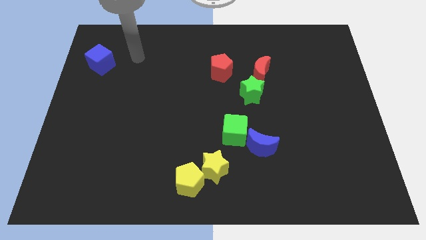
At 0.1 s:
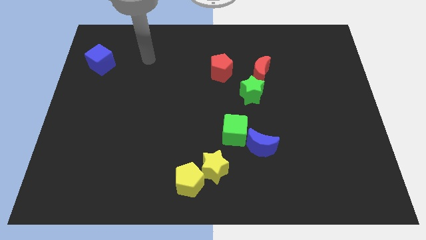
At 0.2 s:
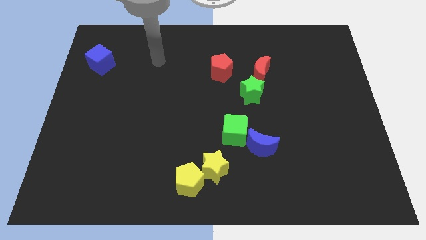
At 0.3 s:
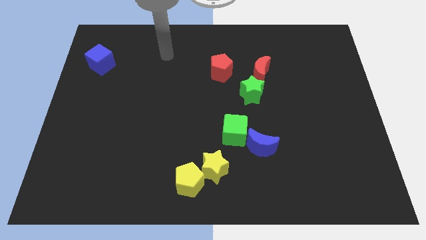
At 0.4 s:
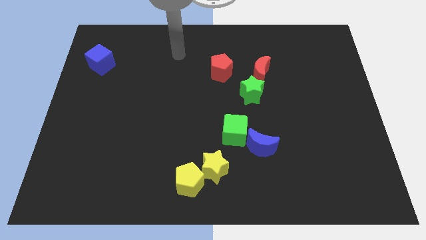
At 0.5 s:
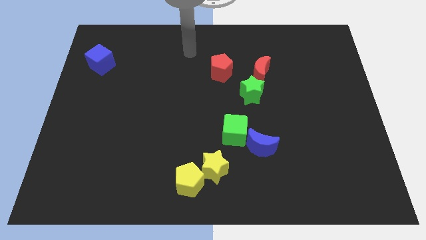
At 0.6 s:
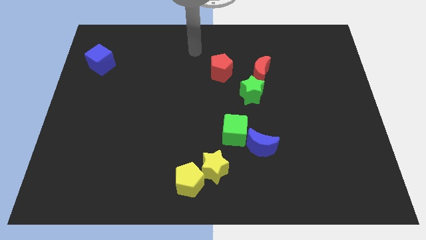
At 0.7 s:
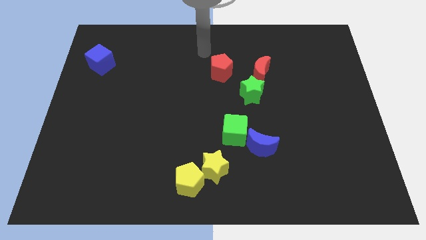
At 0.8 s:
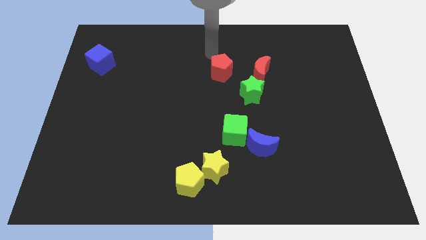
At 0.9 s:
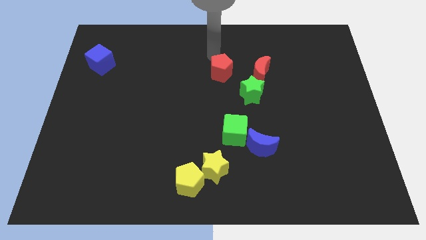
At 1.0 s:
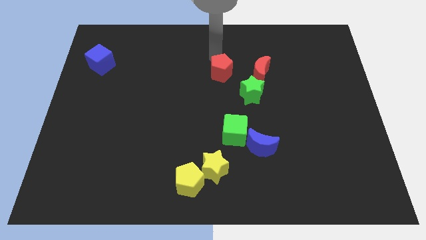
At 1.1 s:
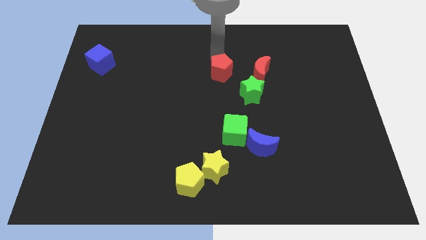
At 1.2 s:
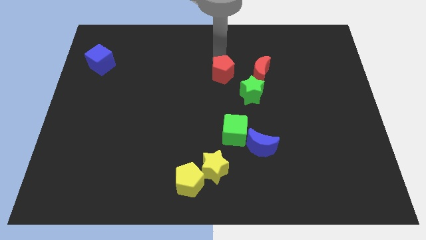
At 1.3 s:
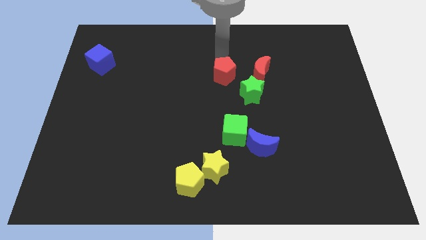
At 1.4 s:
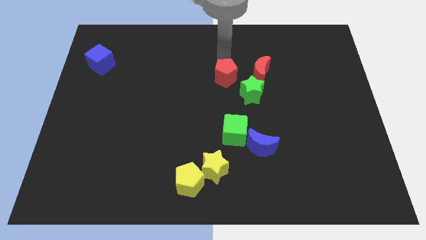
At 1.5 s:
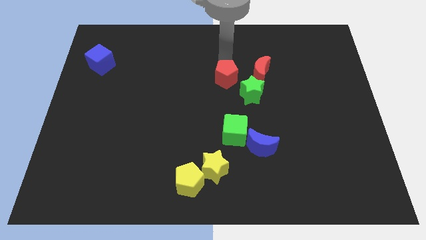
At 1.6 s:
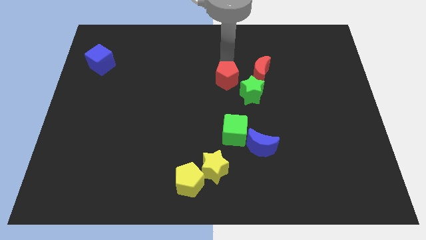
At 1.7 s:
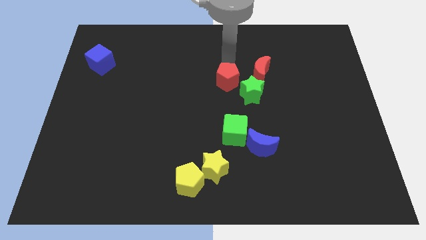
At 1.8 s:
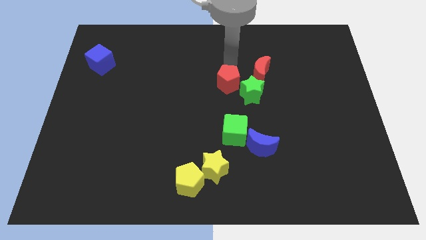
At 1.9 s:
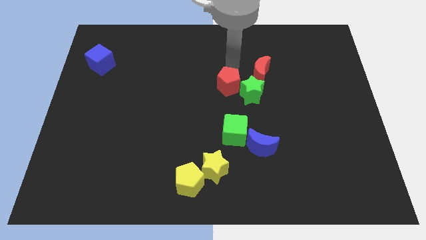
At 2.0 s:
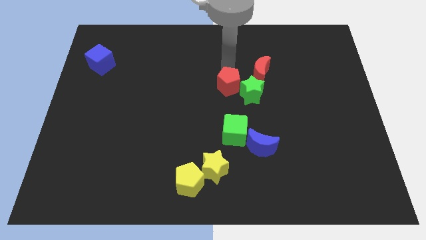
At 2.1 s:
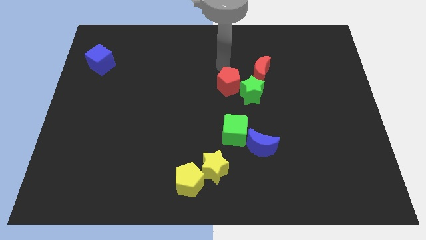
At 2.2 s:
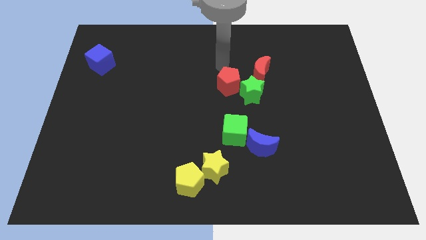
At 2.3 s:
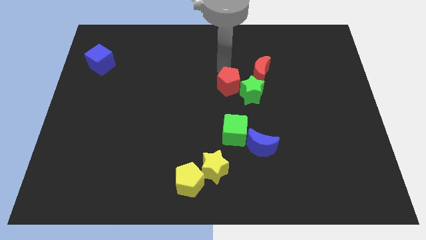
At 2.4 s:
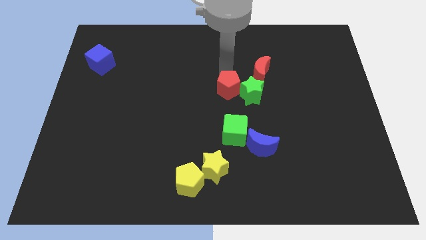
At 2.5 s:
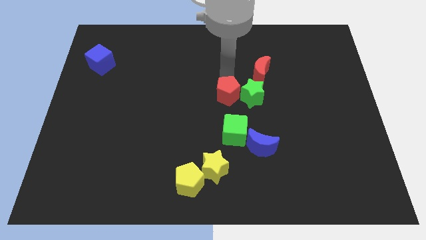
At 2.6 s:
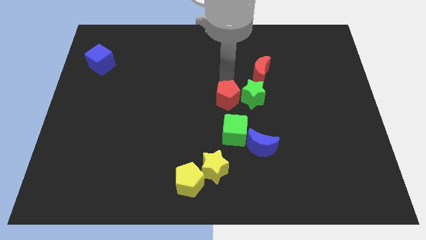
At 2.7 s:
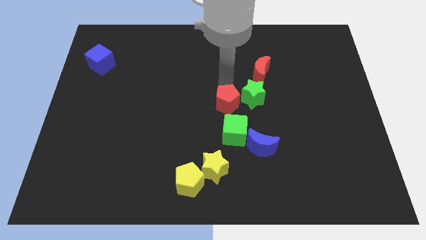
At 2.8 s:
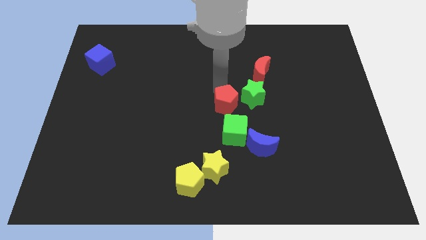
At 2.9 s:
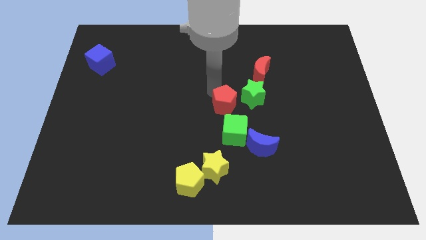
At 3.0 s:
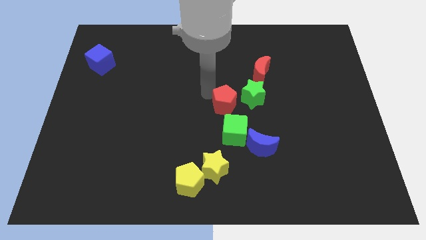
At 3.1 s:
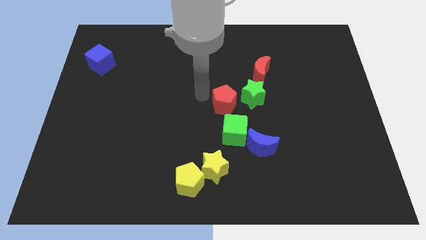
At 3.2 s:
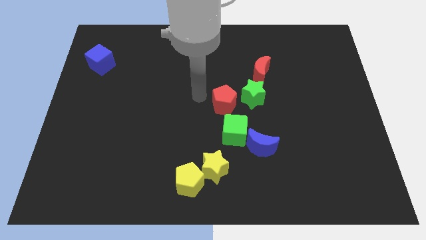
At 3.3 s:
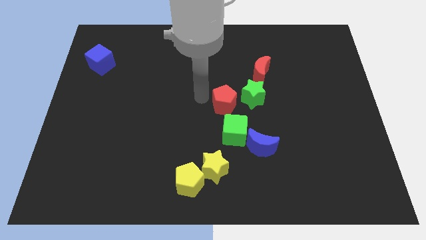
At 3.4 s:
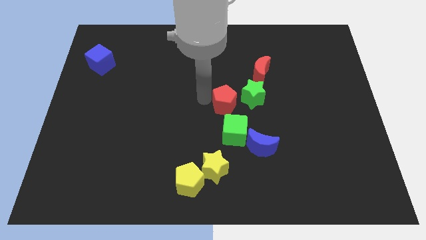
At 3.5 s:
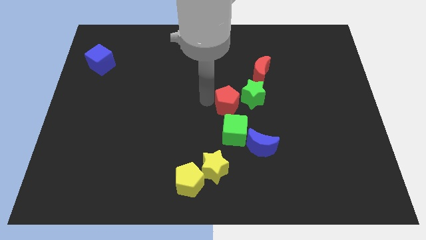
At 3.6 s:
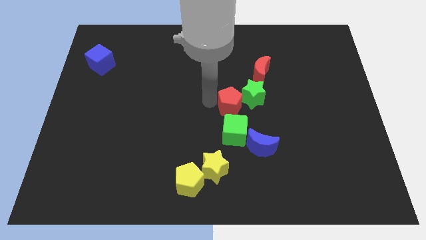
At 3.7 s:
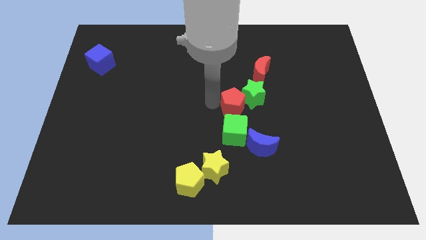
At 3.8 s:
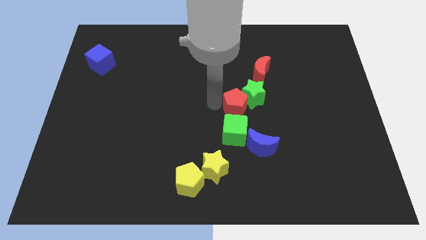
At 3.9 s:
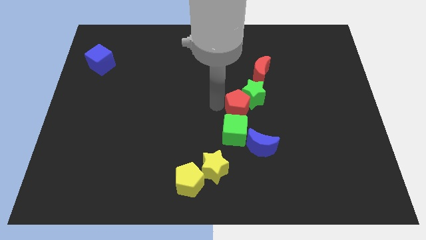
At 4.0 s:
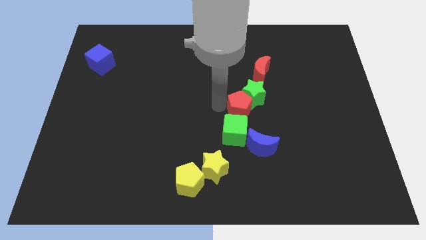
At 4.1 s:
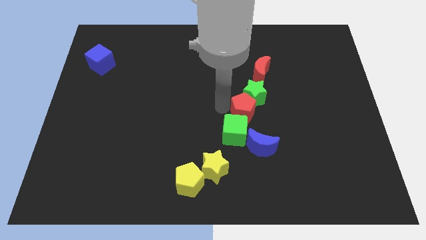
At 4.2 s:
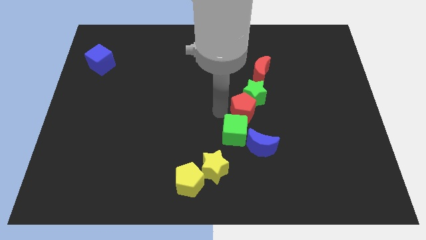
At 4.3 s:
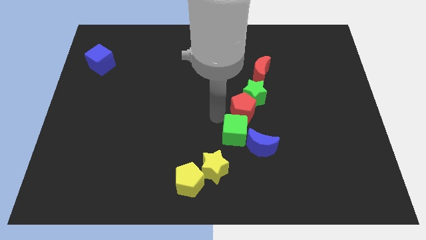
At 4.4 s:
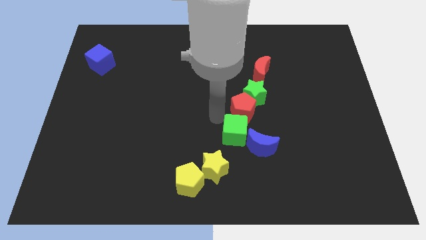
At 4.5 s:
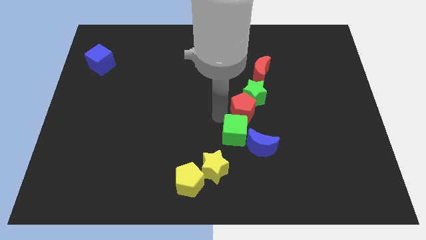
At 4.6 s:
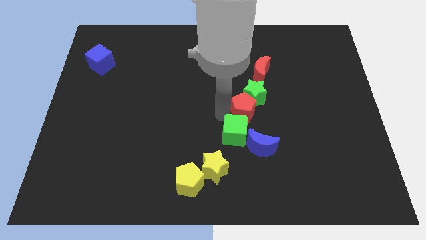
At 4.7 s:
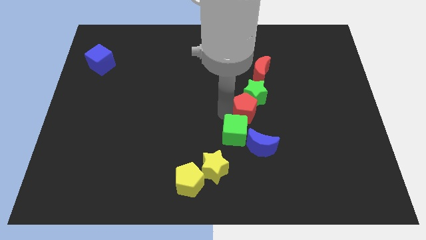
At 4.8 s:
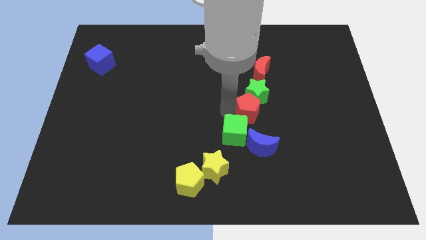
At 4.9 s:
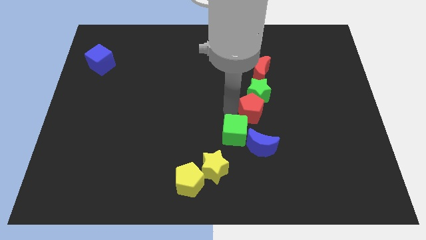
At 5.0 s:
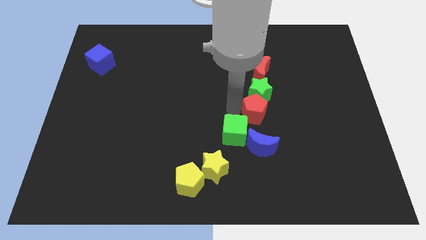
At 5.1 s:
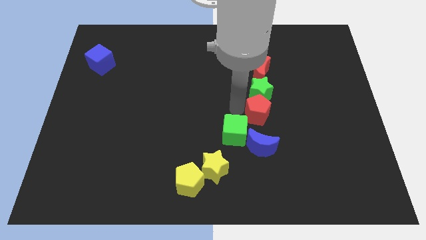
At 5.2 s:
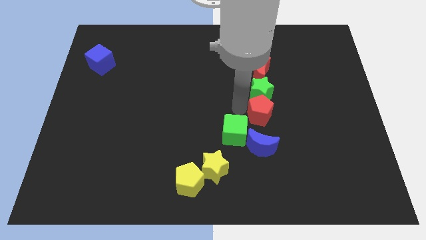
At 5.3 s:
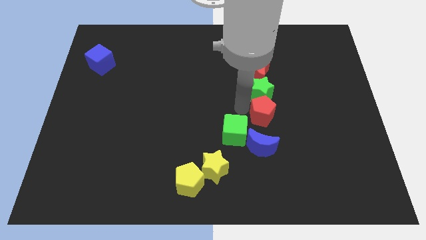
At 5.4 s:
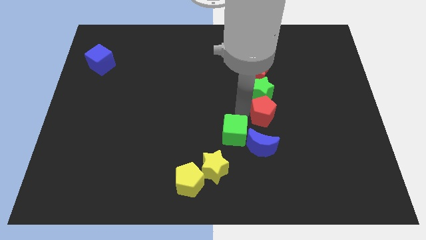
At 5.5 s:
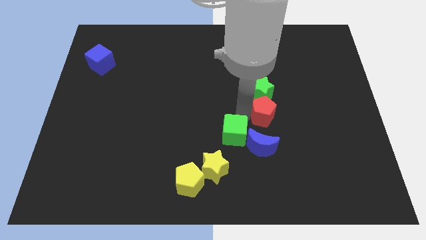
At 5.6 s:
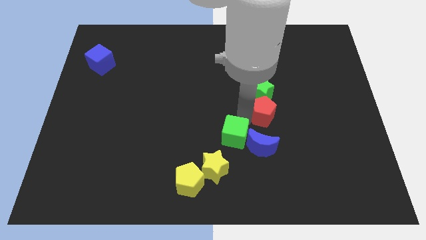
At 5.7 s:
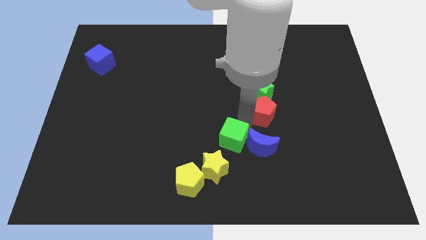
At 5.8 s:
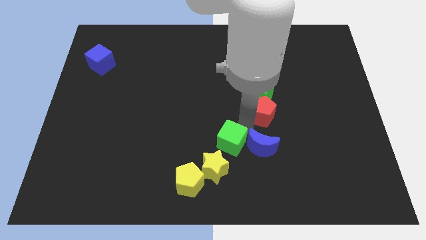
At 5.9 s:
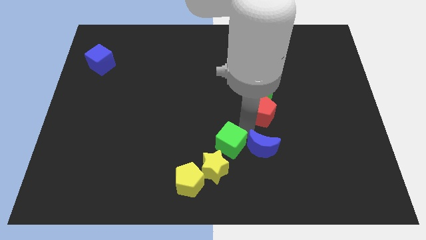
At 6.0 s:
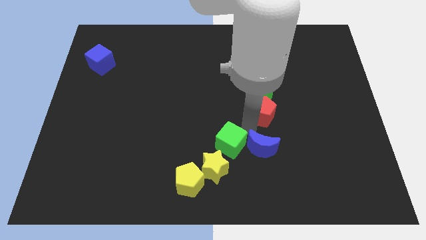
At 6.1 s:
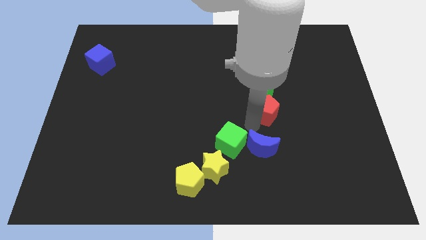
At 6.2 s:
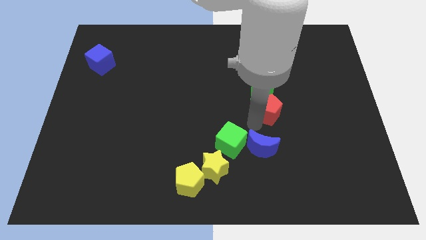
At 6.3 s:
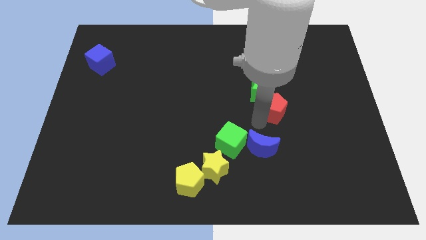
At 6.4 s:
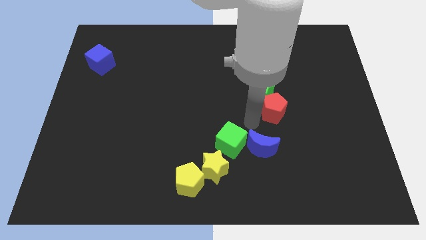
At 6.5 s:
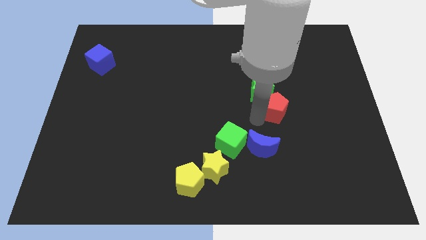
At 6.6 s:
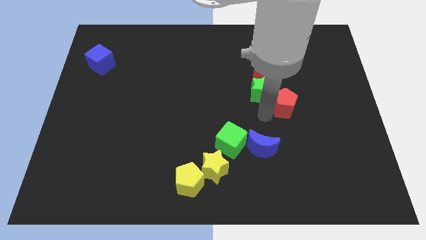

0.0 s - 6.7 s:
put the red pentagon just right of the green star
